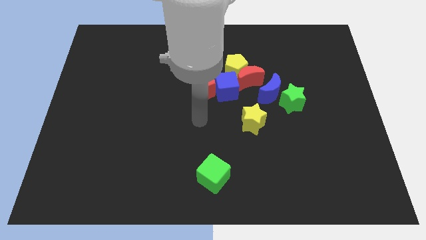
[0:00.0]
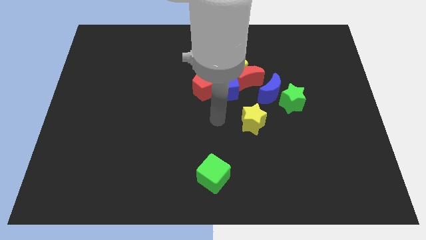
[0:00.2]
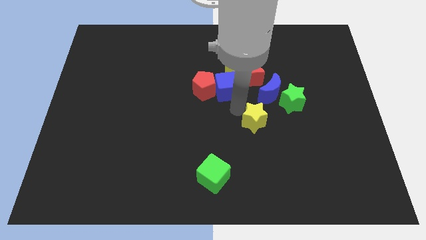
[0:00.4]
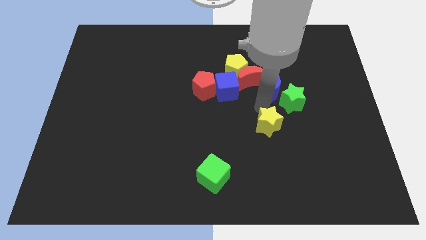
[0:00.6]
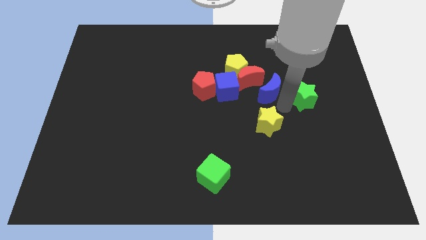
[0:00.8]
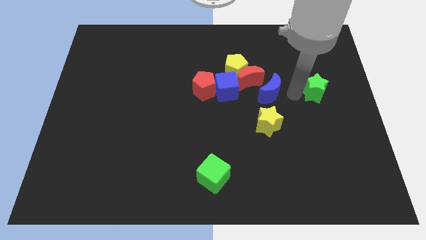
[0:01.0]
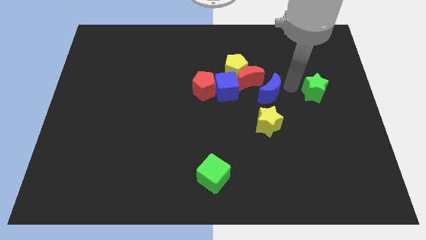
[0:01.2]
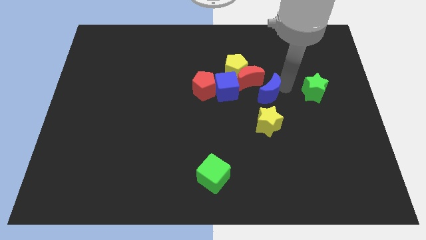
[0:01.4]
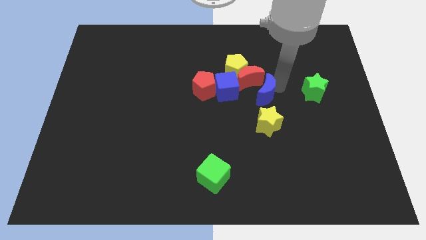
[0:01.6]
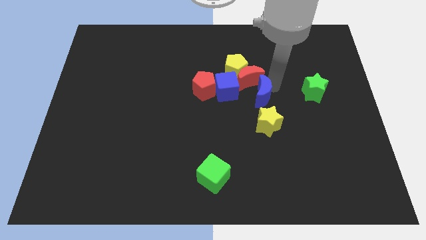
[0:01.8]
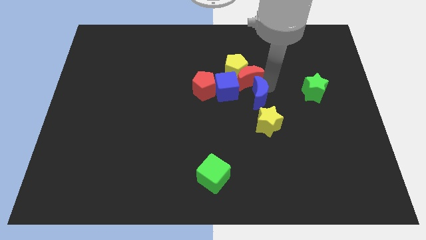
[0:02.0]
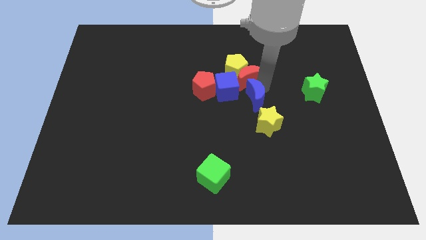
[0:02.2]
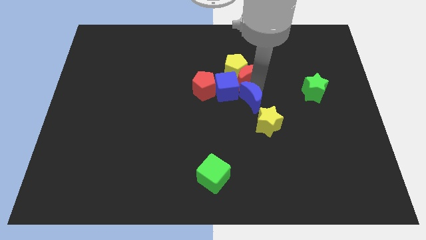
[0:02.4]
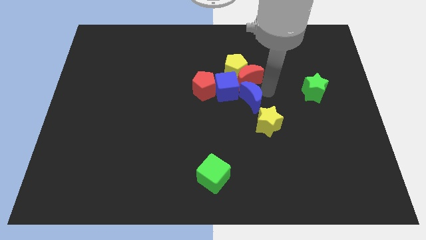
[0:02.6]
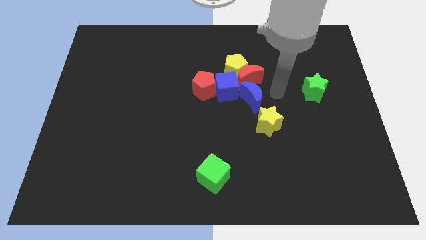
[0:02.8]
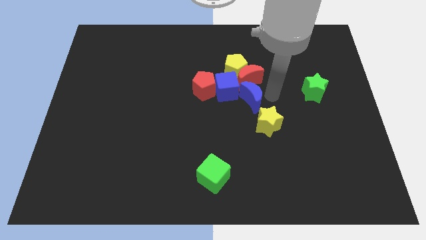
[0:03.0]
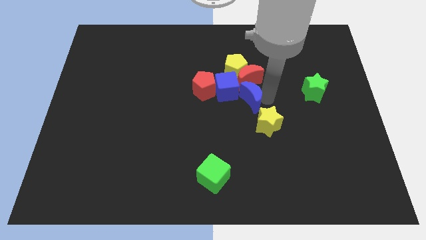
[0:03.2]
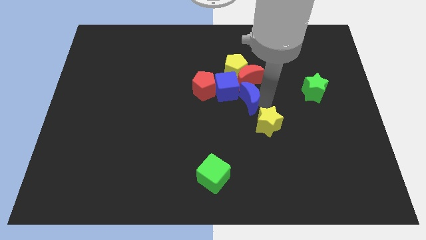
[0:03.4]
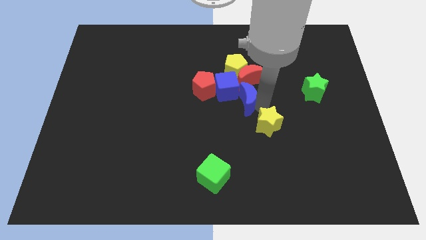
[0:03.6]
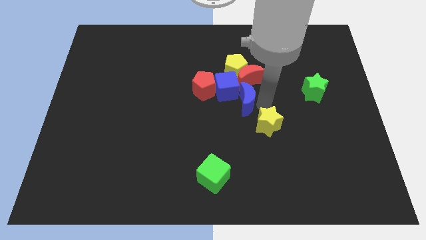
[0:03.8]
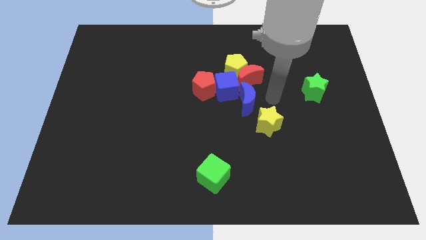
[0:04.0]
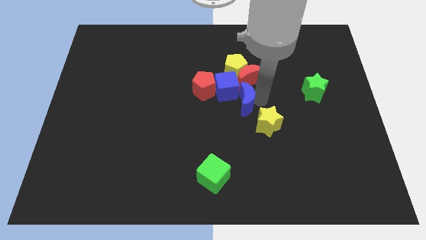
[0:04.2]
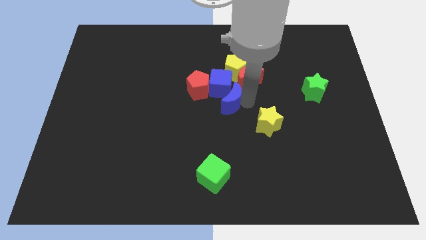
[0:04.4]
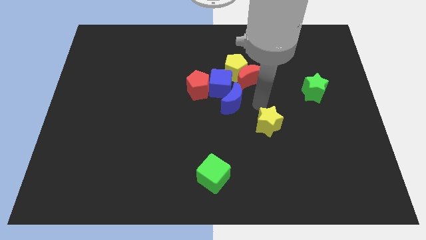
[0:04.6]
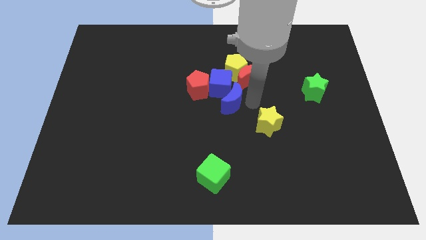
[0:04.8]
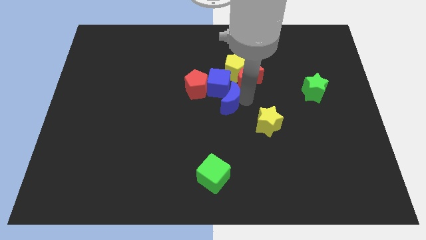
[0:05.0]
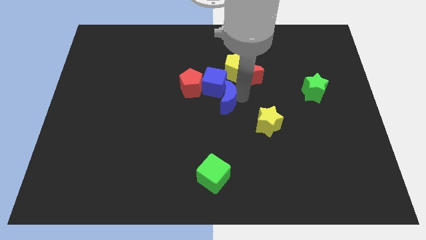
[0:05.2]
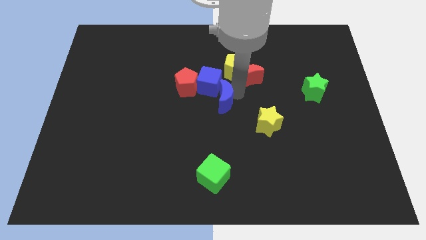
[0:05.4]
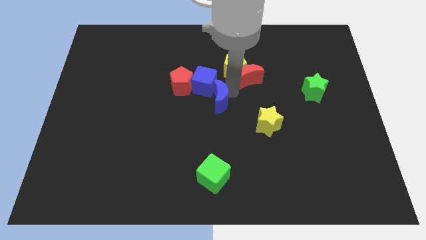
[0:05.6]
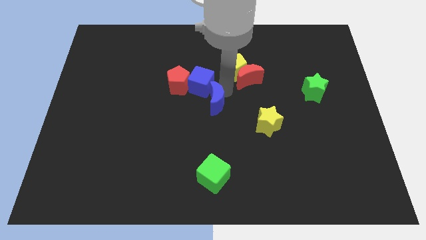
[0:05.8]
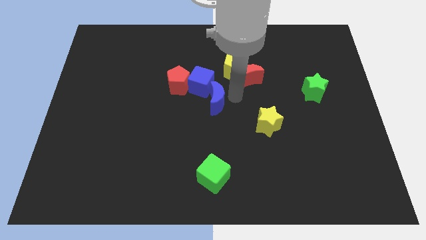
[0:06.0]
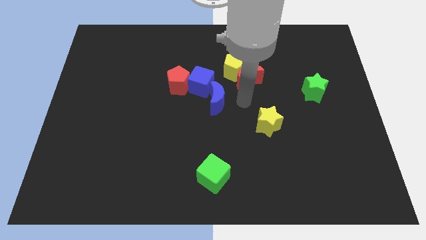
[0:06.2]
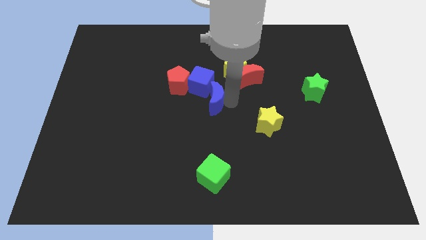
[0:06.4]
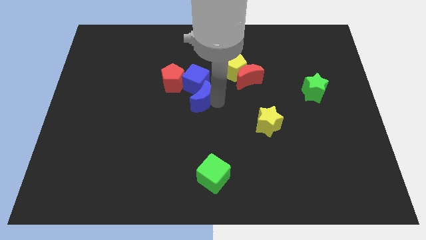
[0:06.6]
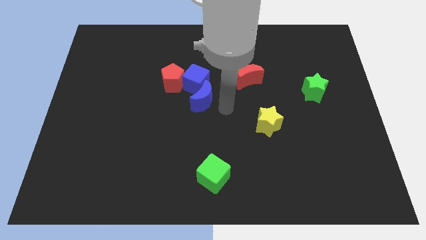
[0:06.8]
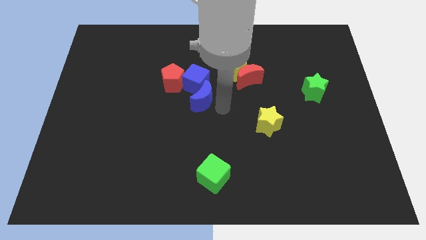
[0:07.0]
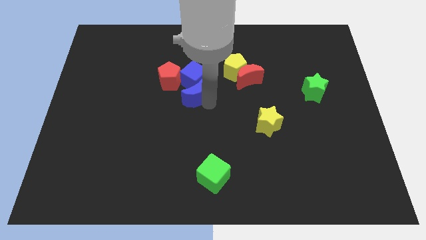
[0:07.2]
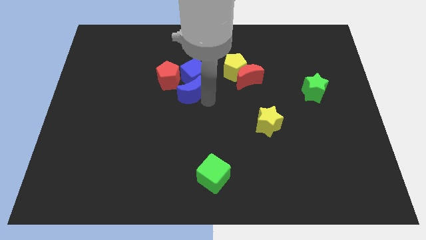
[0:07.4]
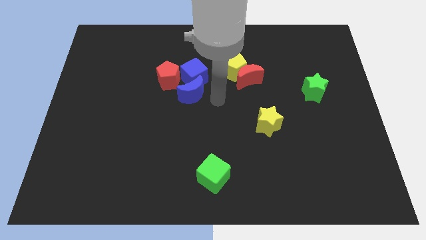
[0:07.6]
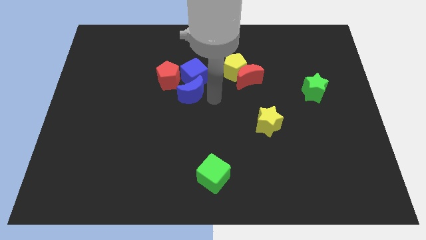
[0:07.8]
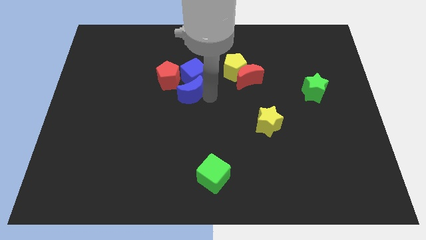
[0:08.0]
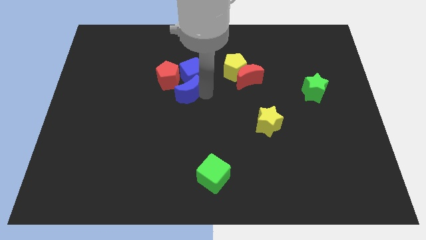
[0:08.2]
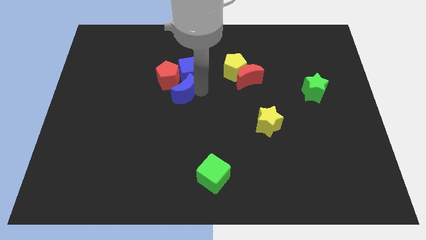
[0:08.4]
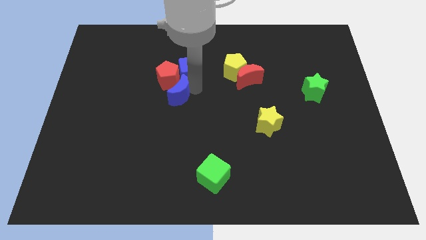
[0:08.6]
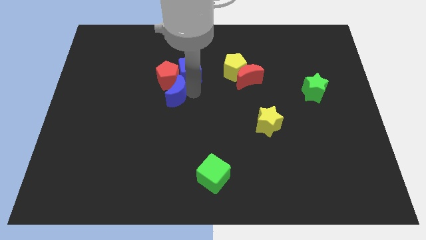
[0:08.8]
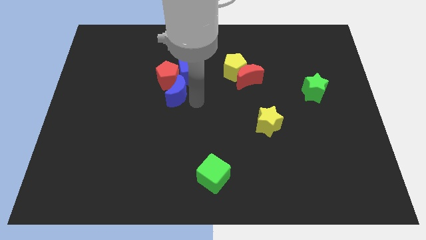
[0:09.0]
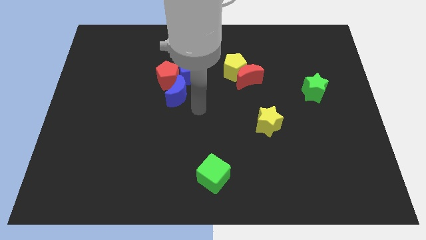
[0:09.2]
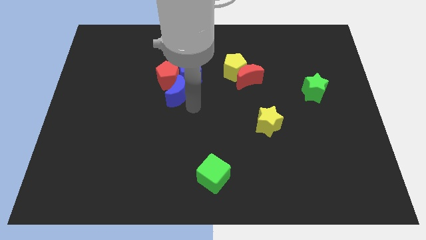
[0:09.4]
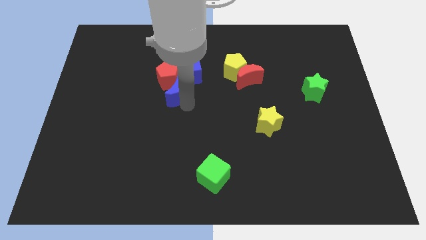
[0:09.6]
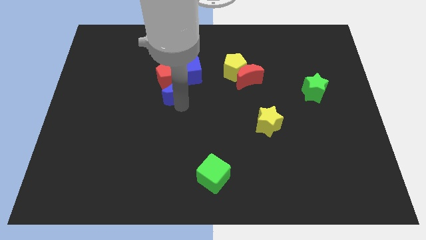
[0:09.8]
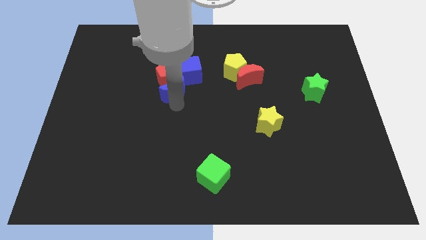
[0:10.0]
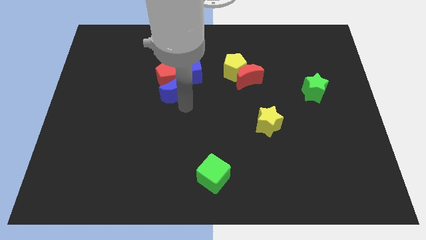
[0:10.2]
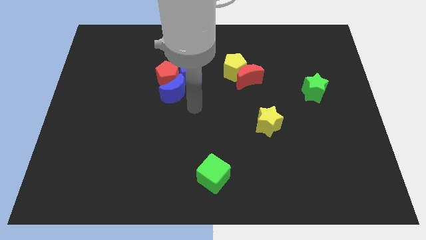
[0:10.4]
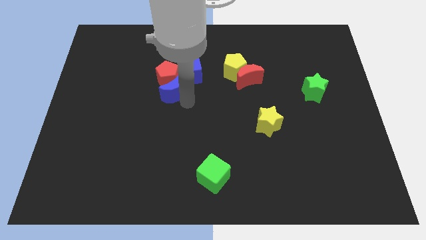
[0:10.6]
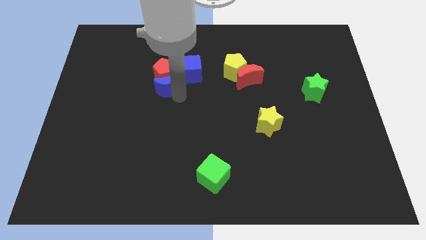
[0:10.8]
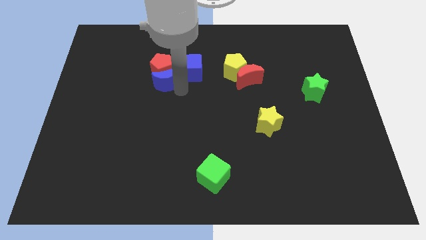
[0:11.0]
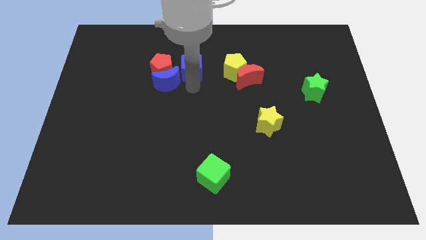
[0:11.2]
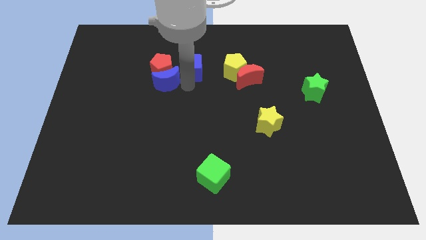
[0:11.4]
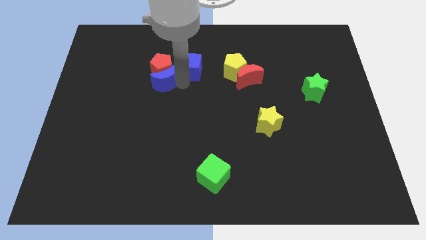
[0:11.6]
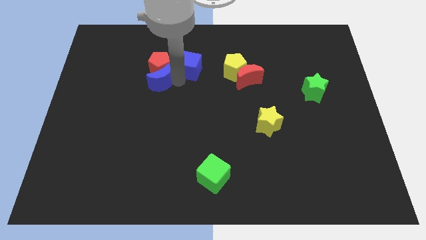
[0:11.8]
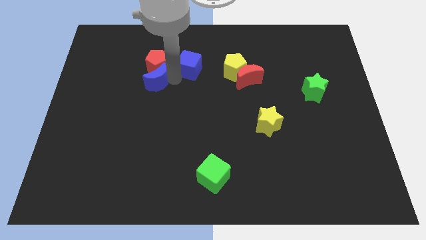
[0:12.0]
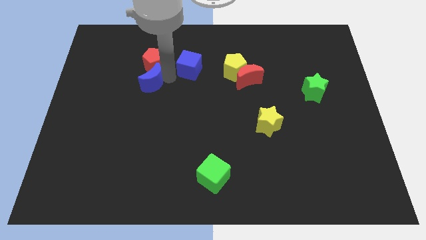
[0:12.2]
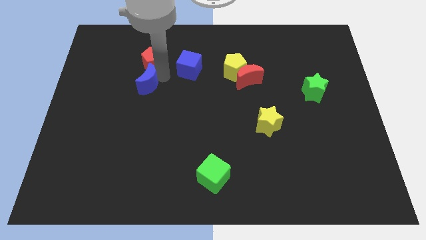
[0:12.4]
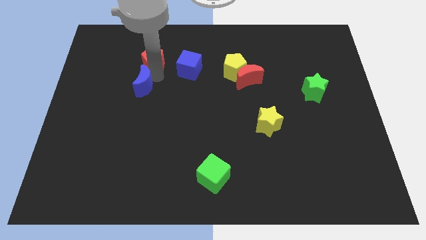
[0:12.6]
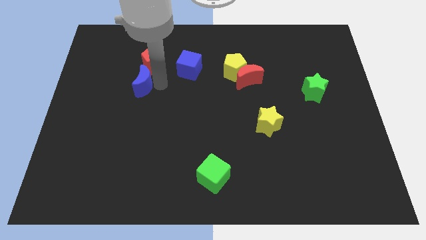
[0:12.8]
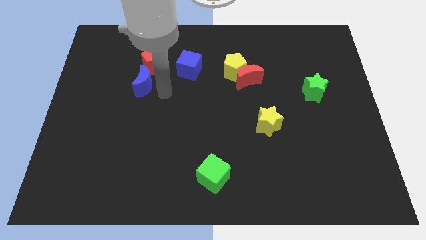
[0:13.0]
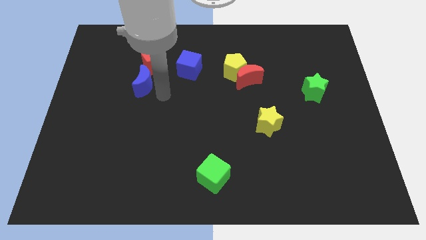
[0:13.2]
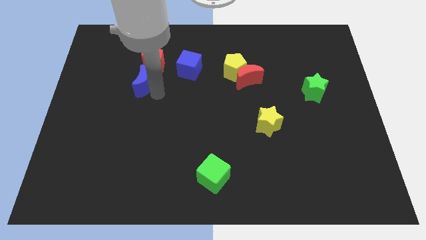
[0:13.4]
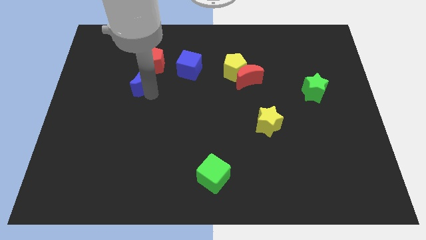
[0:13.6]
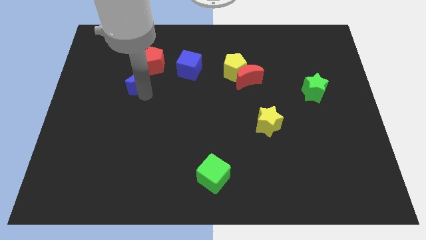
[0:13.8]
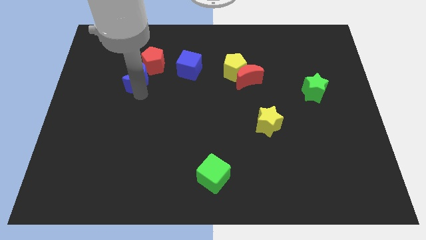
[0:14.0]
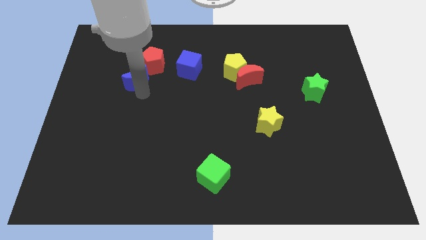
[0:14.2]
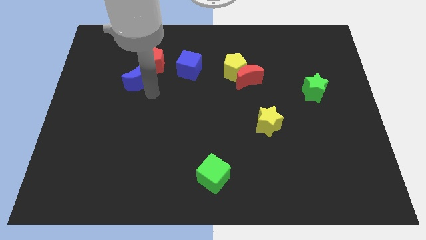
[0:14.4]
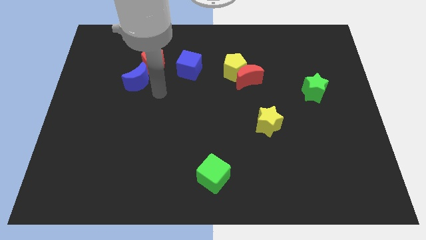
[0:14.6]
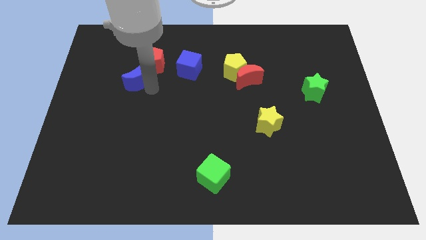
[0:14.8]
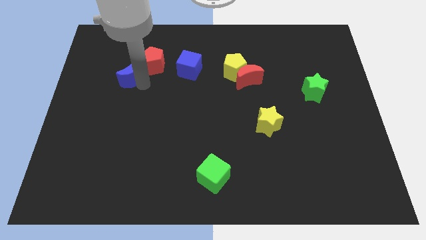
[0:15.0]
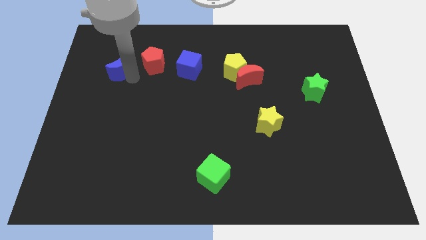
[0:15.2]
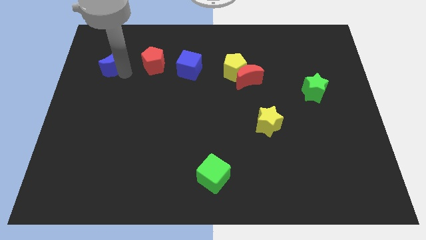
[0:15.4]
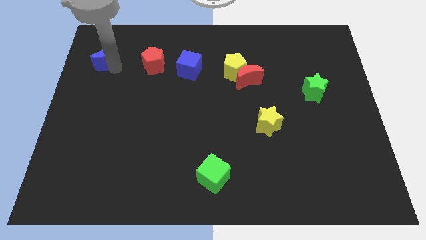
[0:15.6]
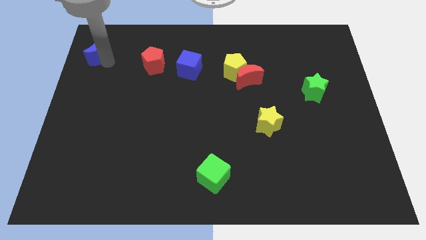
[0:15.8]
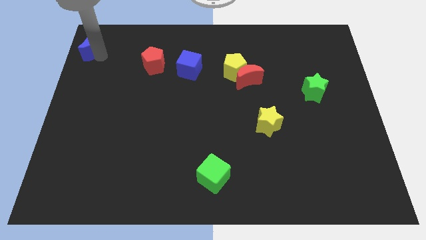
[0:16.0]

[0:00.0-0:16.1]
push the blue moon to the upper left corner
